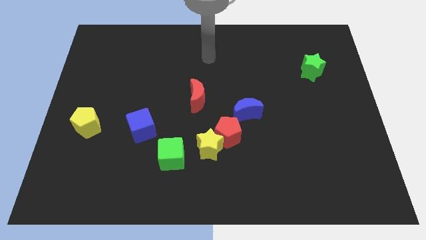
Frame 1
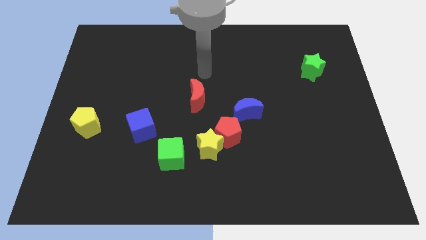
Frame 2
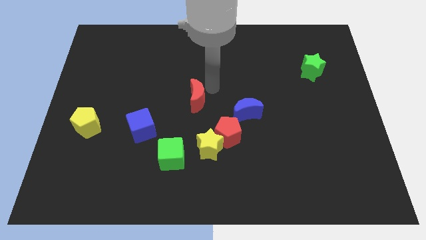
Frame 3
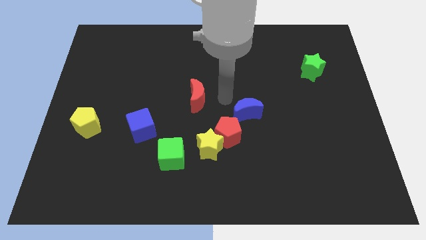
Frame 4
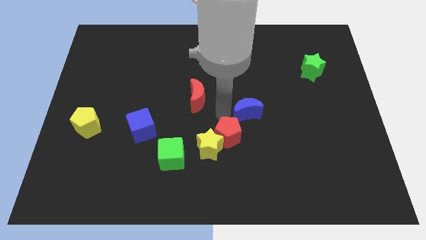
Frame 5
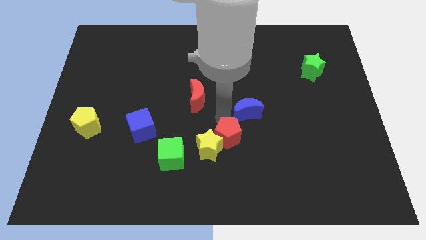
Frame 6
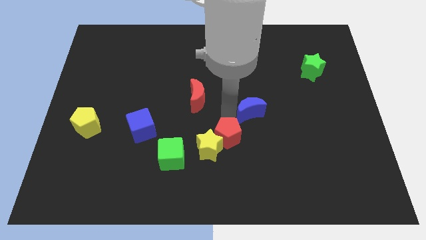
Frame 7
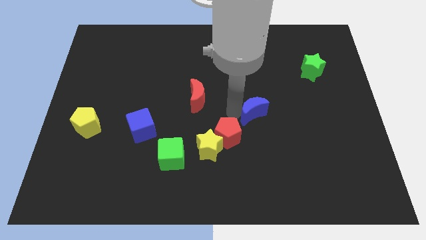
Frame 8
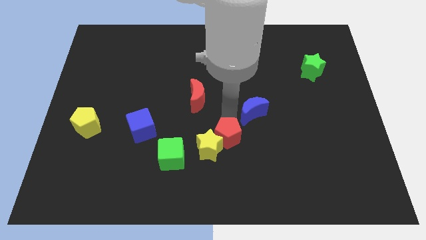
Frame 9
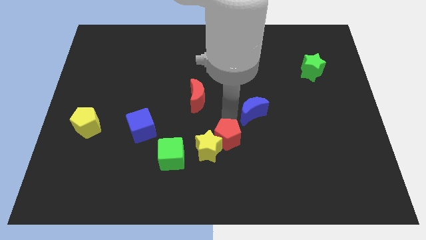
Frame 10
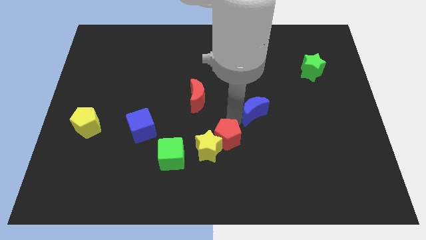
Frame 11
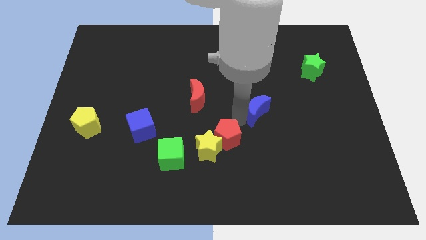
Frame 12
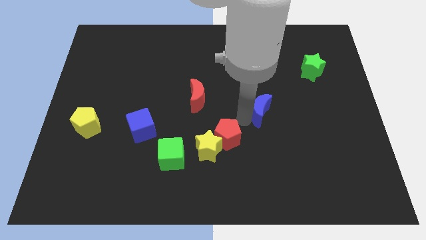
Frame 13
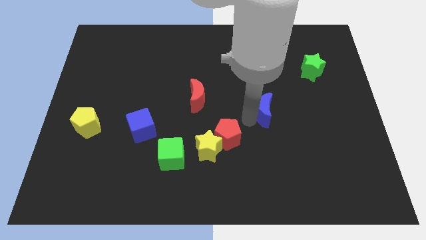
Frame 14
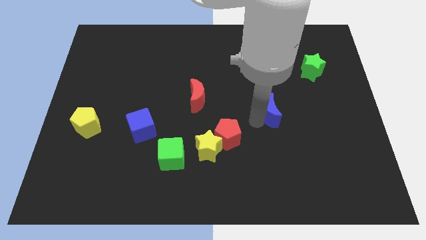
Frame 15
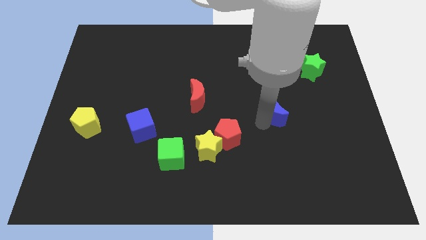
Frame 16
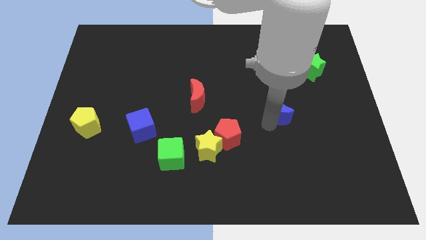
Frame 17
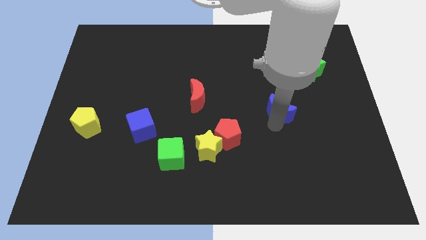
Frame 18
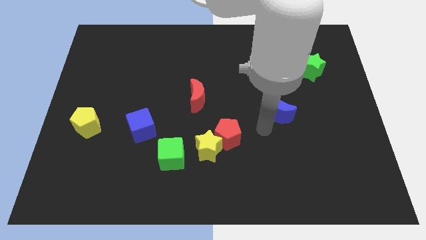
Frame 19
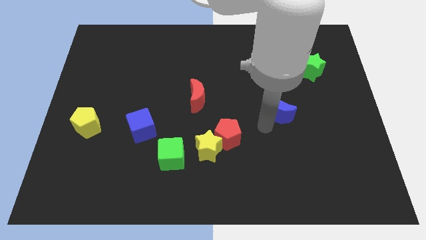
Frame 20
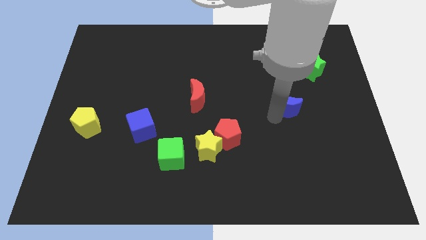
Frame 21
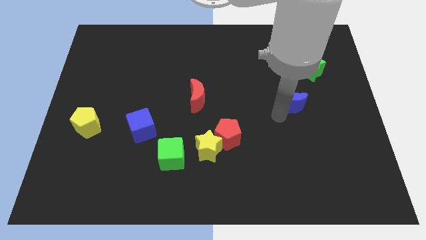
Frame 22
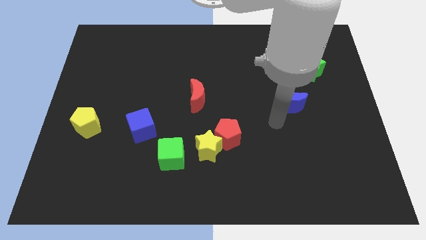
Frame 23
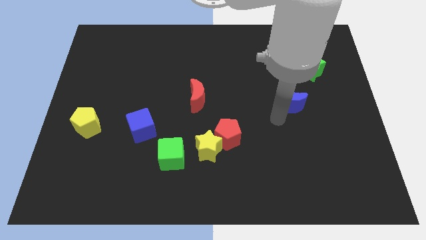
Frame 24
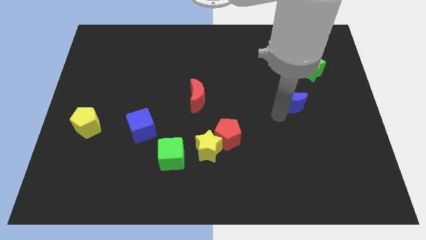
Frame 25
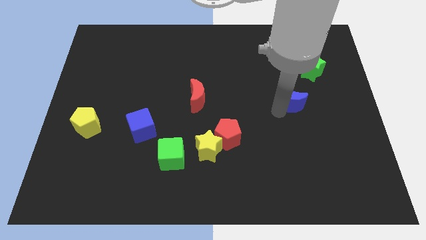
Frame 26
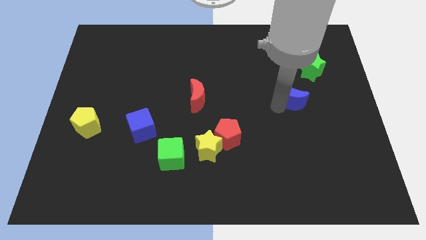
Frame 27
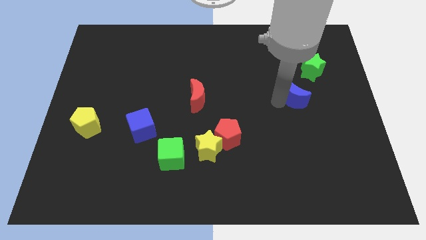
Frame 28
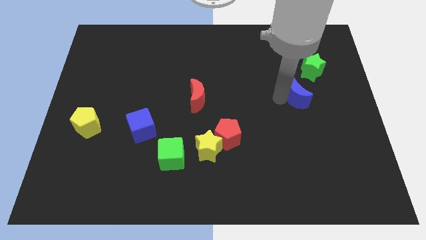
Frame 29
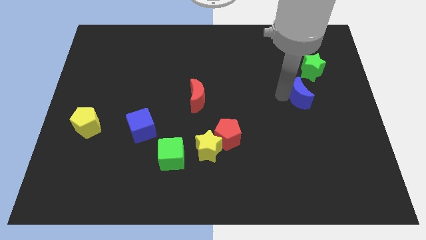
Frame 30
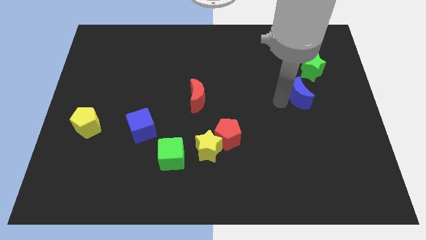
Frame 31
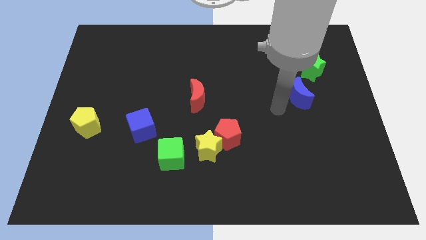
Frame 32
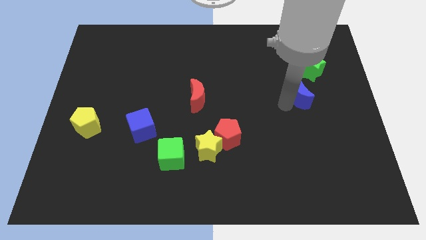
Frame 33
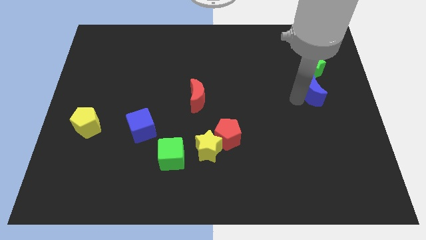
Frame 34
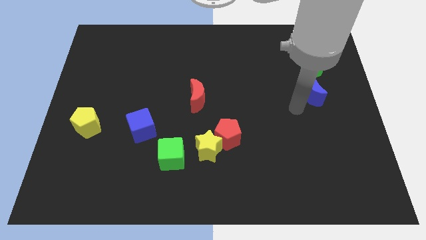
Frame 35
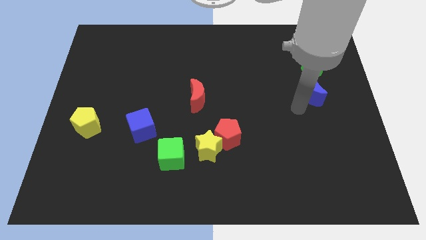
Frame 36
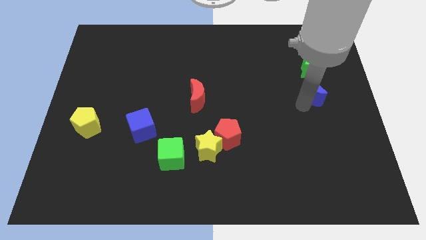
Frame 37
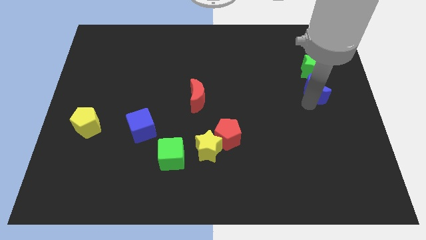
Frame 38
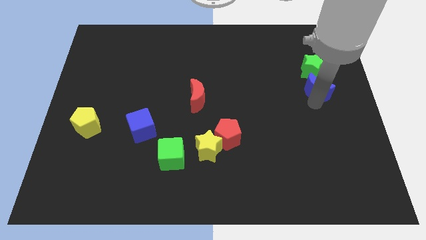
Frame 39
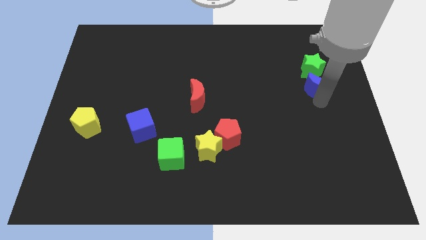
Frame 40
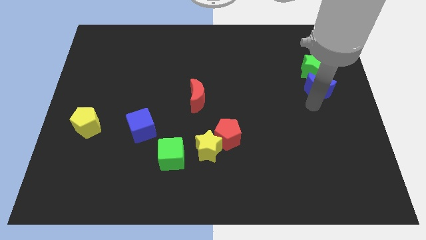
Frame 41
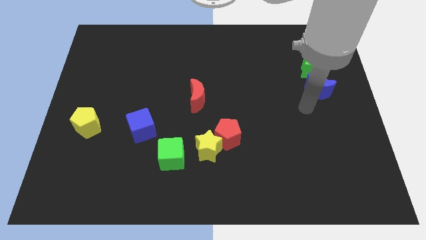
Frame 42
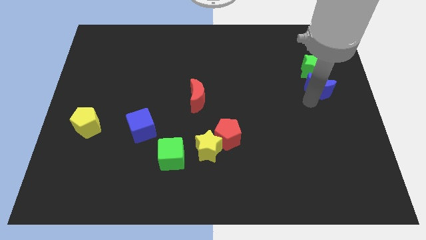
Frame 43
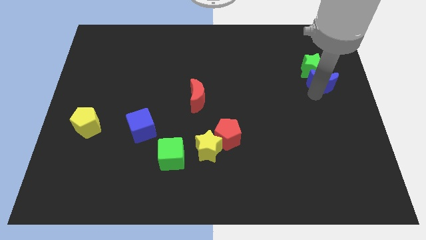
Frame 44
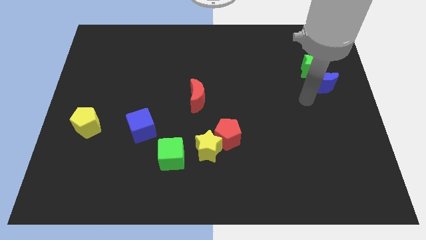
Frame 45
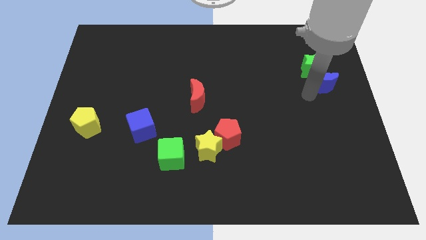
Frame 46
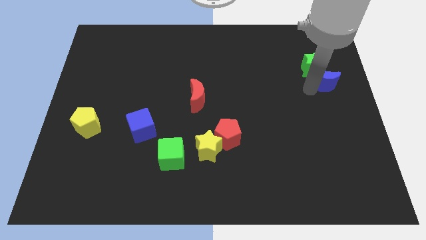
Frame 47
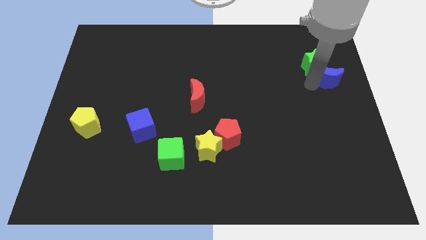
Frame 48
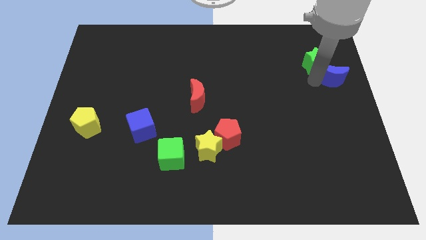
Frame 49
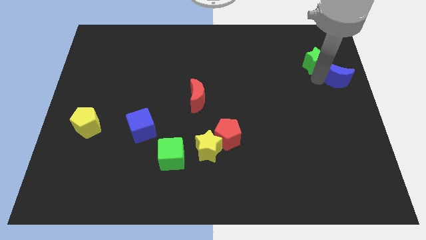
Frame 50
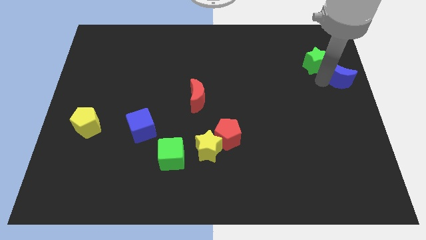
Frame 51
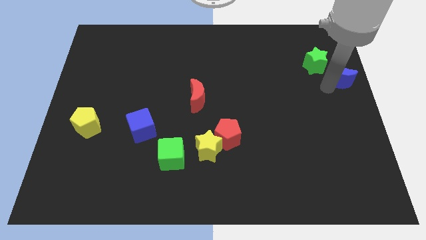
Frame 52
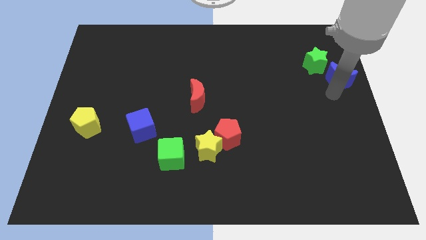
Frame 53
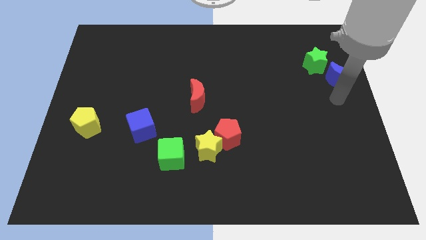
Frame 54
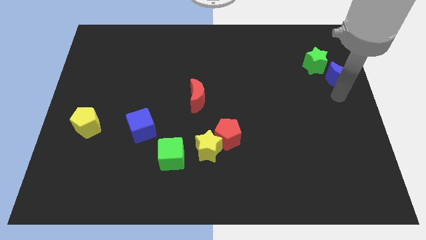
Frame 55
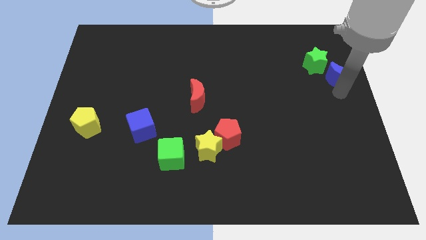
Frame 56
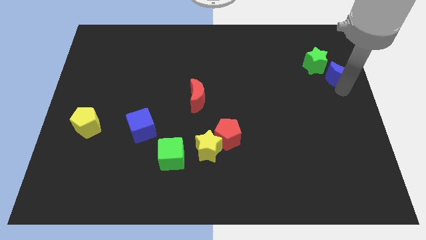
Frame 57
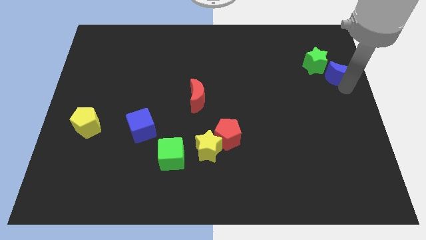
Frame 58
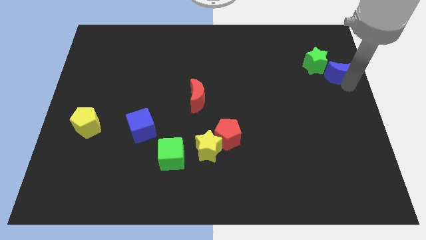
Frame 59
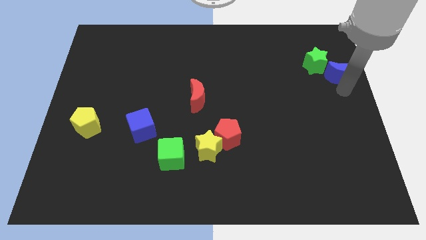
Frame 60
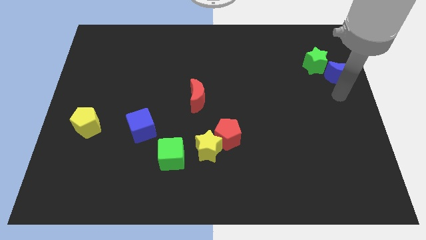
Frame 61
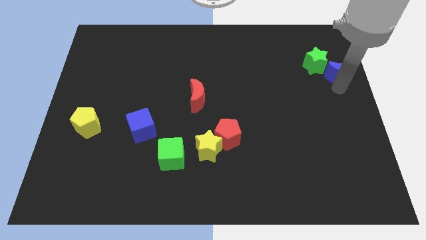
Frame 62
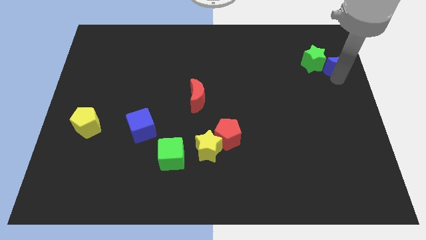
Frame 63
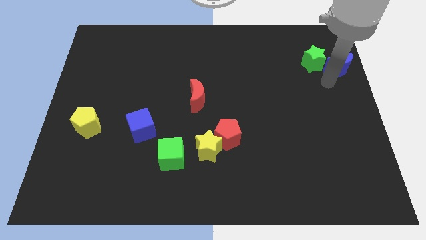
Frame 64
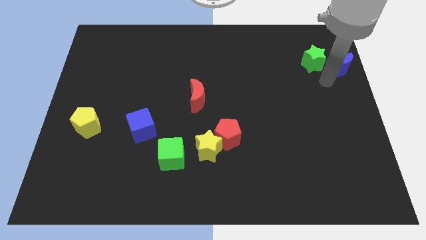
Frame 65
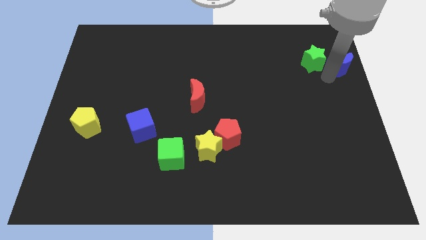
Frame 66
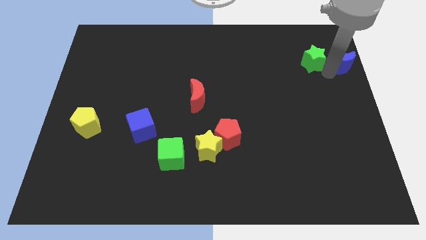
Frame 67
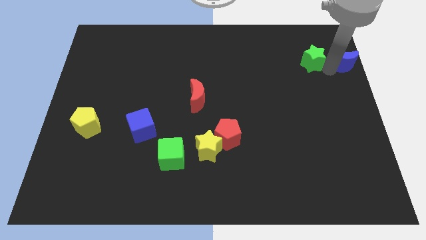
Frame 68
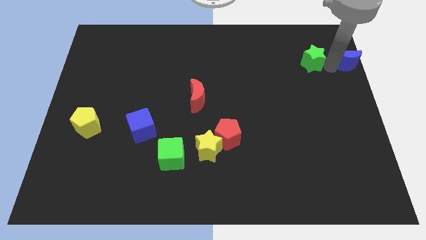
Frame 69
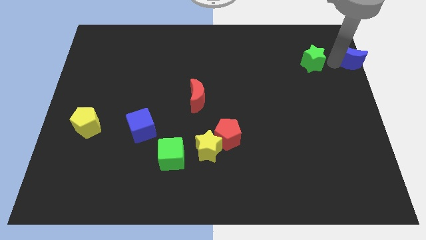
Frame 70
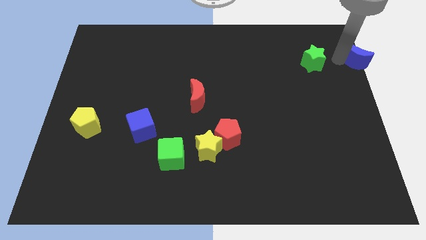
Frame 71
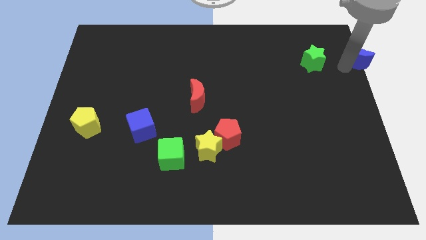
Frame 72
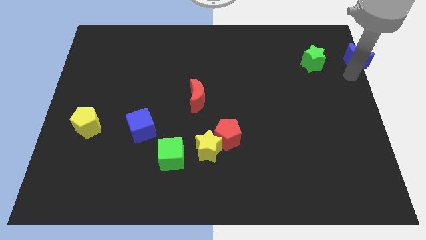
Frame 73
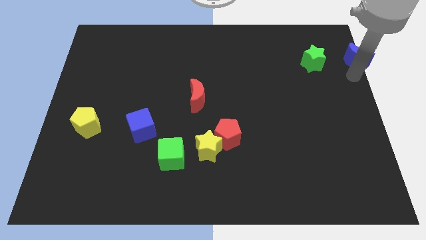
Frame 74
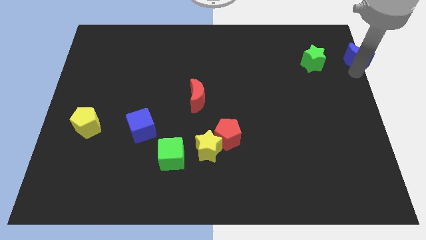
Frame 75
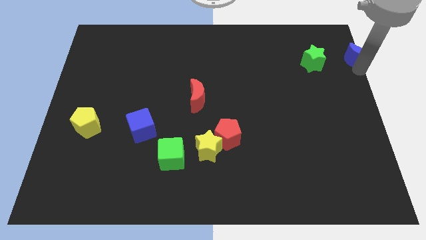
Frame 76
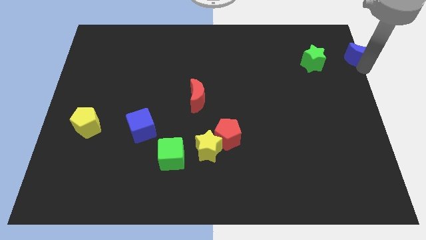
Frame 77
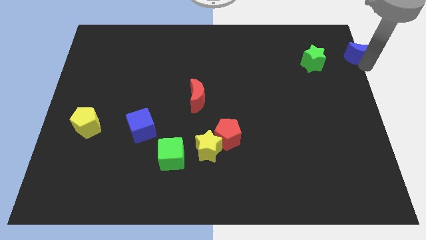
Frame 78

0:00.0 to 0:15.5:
slide the blue moon to the top right corner
